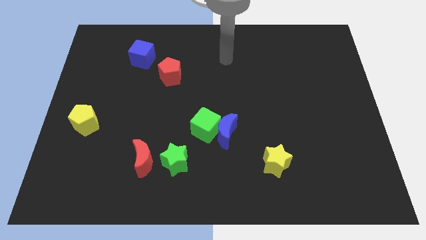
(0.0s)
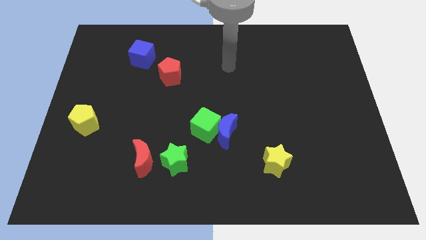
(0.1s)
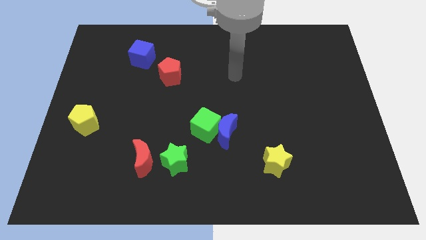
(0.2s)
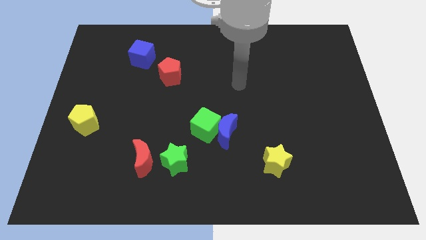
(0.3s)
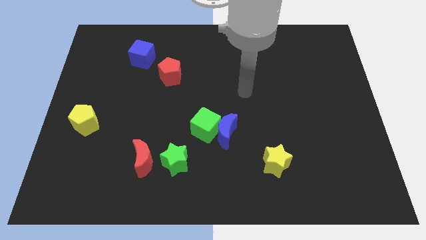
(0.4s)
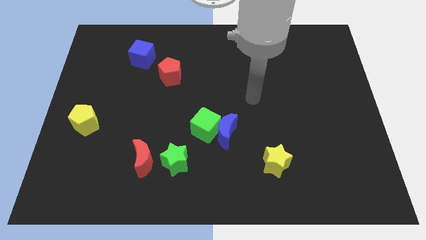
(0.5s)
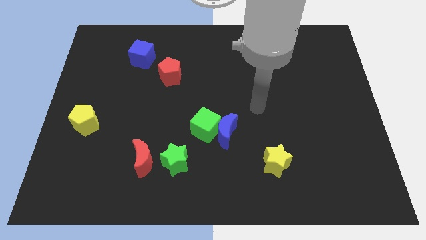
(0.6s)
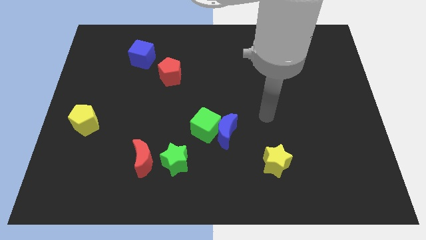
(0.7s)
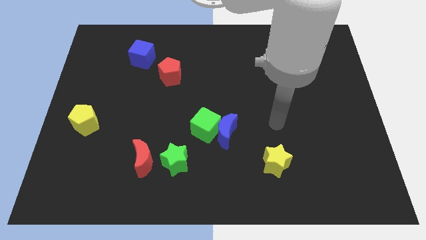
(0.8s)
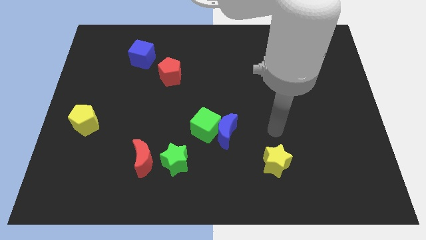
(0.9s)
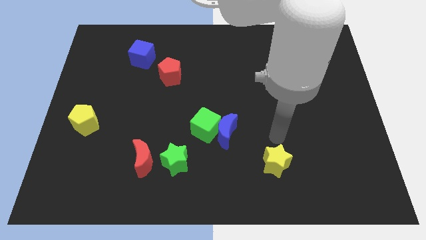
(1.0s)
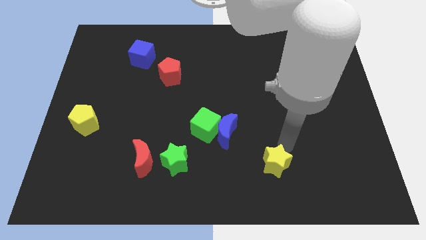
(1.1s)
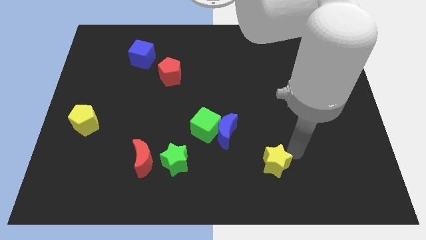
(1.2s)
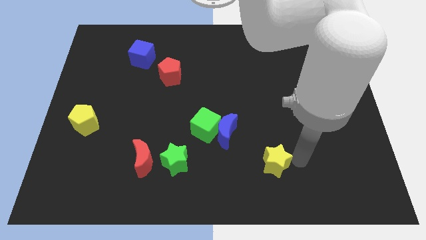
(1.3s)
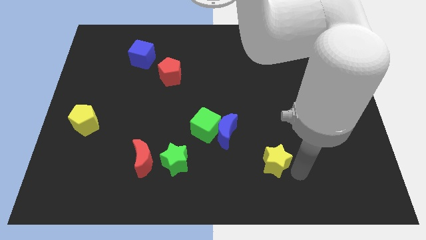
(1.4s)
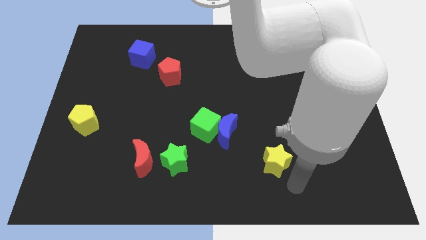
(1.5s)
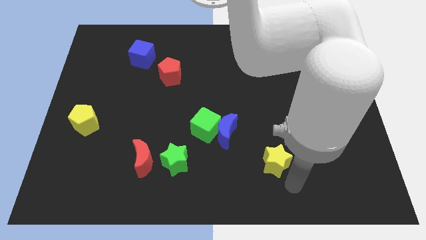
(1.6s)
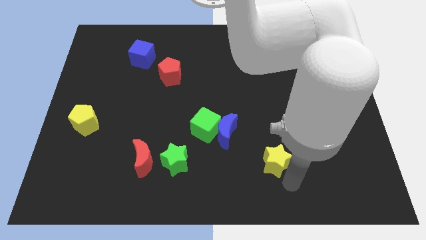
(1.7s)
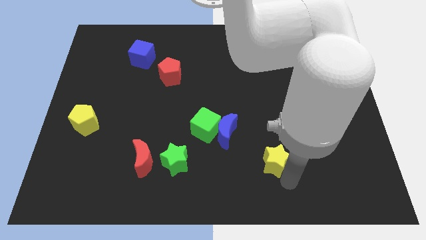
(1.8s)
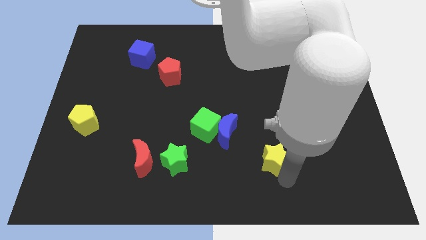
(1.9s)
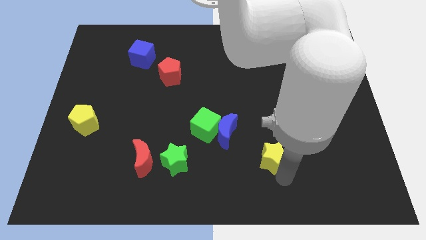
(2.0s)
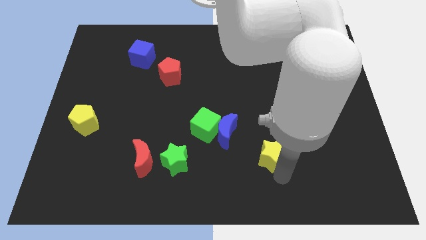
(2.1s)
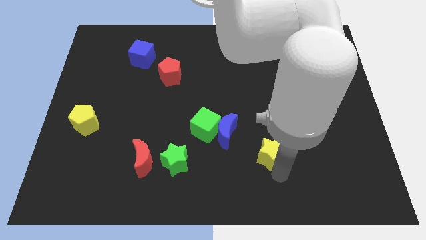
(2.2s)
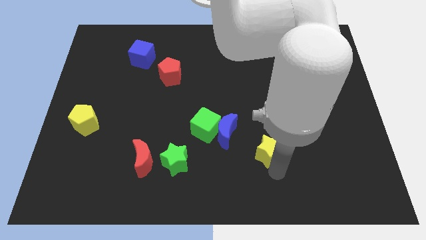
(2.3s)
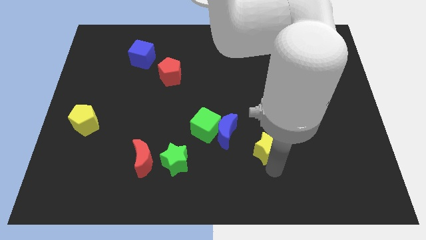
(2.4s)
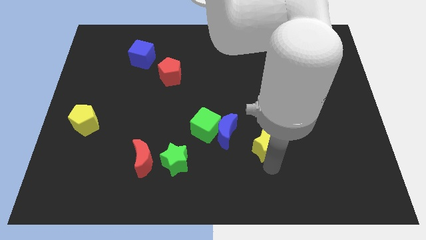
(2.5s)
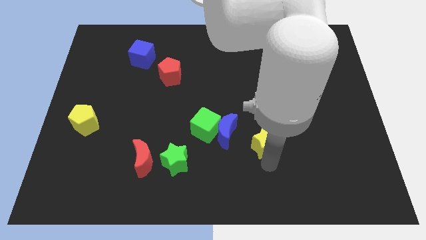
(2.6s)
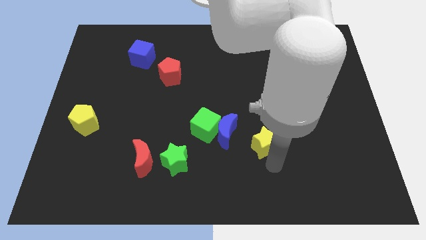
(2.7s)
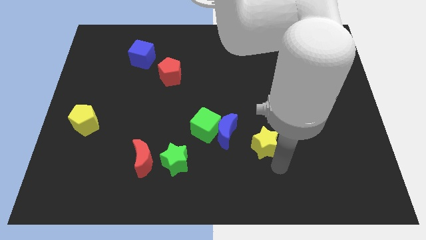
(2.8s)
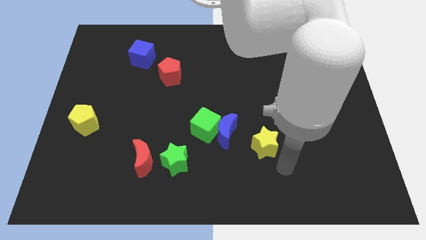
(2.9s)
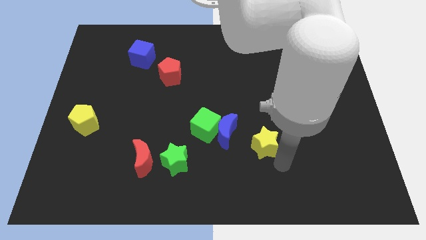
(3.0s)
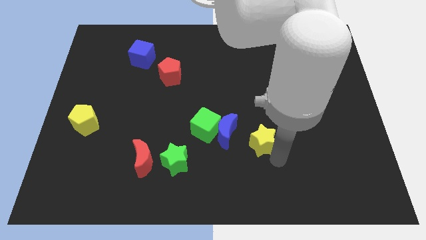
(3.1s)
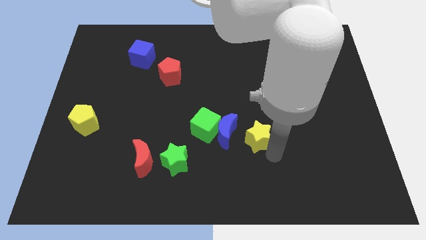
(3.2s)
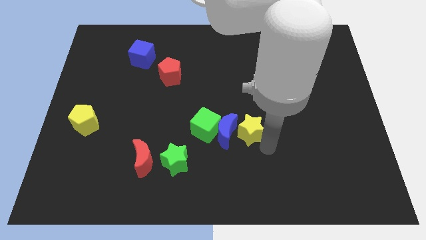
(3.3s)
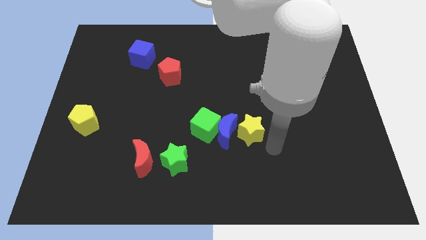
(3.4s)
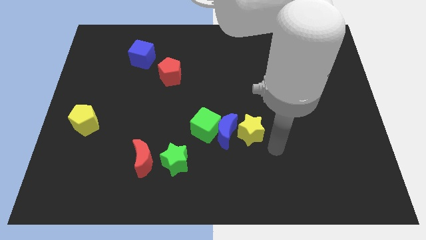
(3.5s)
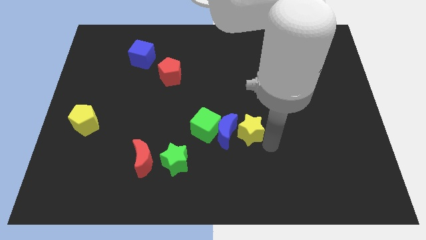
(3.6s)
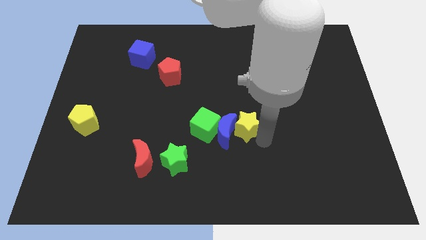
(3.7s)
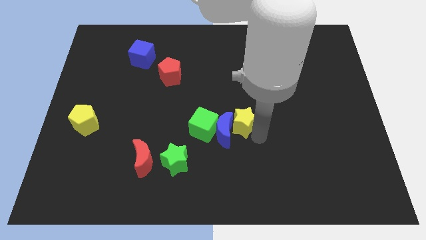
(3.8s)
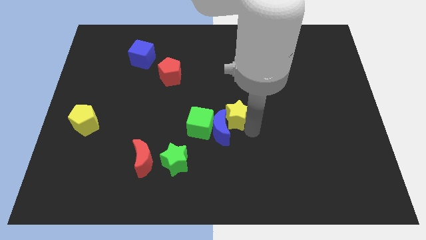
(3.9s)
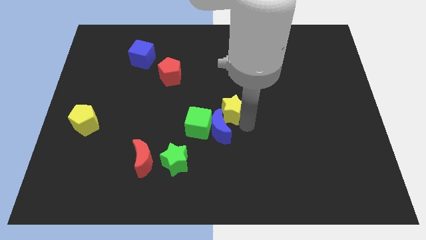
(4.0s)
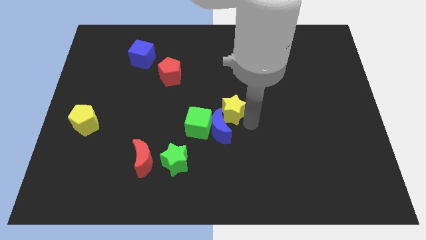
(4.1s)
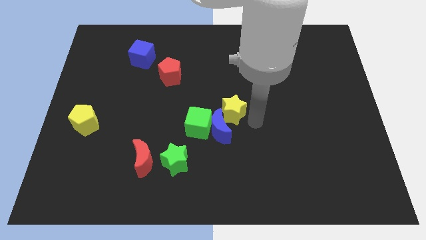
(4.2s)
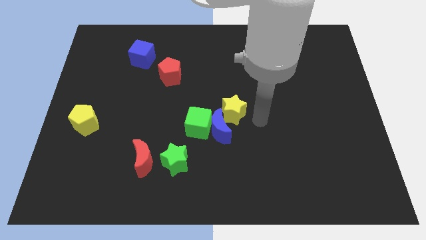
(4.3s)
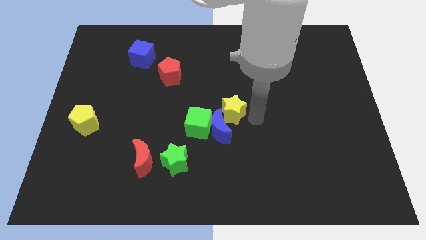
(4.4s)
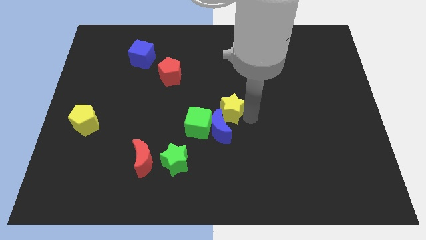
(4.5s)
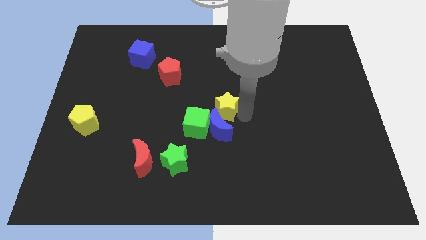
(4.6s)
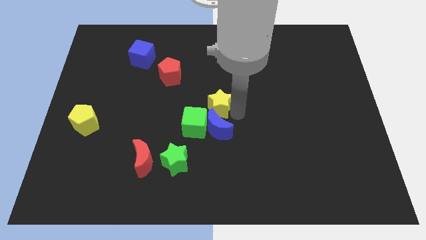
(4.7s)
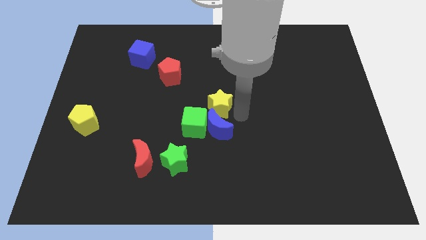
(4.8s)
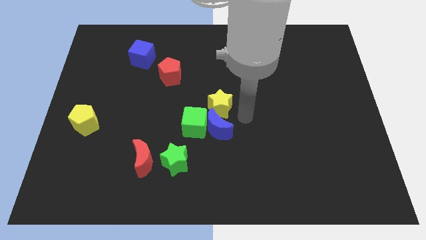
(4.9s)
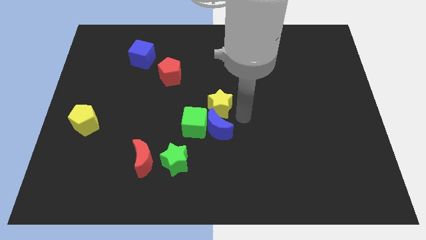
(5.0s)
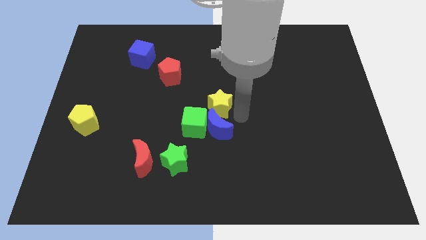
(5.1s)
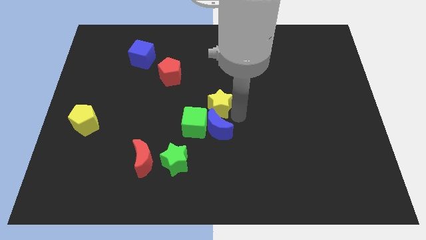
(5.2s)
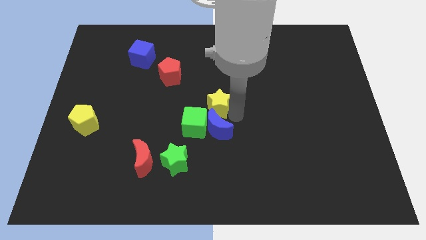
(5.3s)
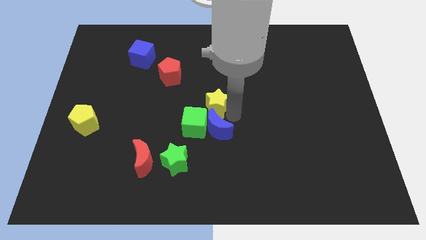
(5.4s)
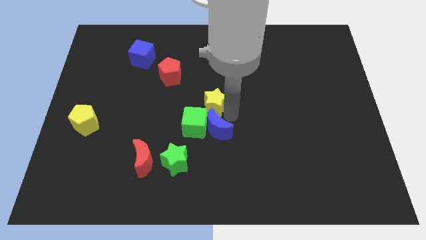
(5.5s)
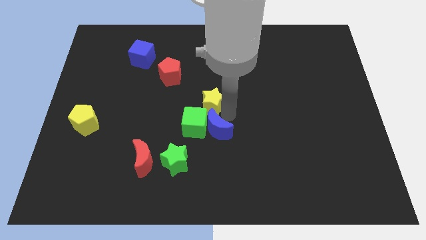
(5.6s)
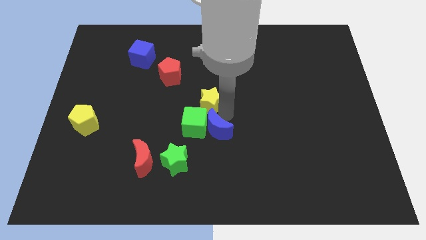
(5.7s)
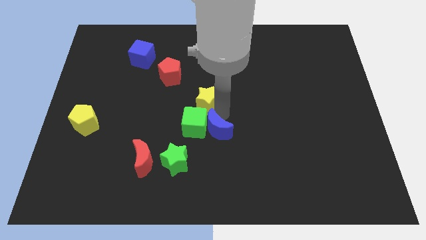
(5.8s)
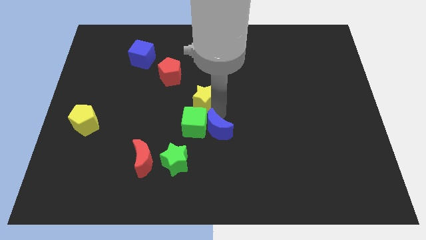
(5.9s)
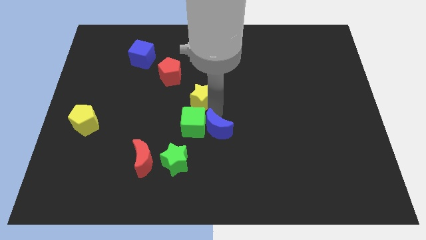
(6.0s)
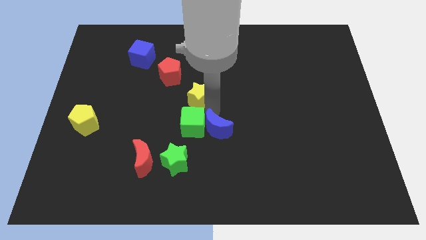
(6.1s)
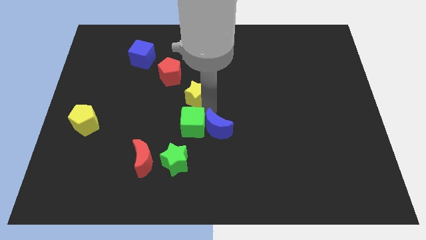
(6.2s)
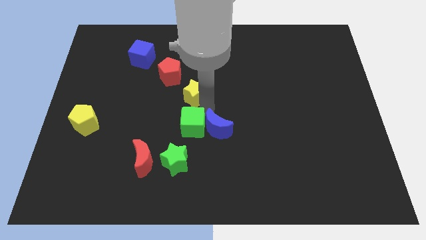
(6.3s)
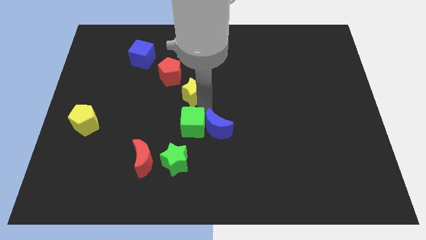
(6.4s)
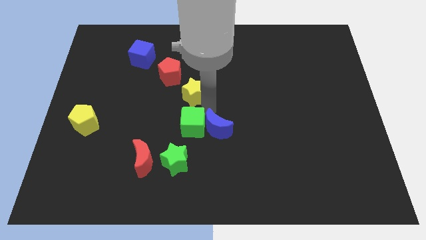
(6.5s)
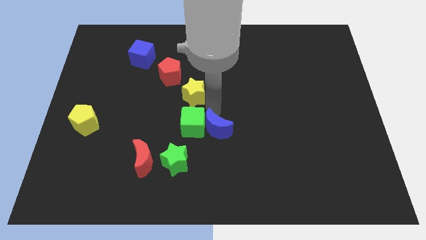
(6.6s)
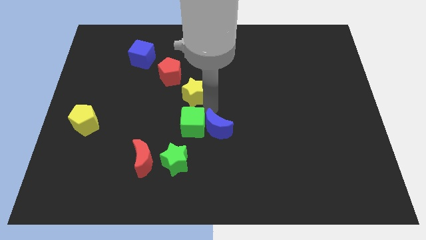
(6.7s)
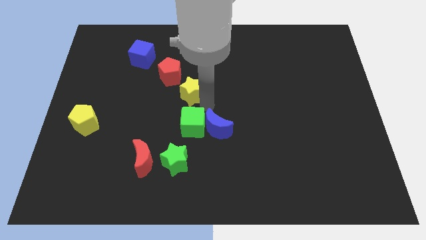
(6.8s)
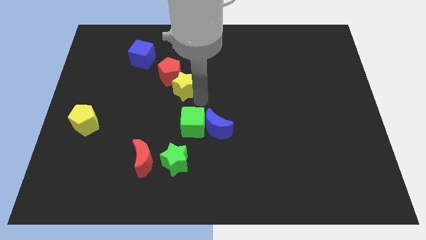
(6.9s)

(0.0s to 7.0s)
move the yellow star next to the red pentagon

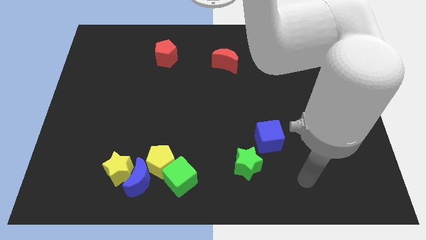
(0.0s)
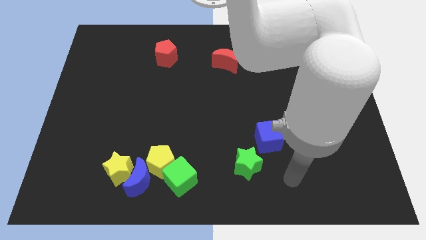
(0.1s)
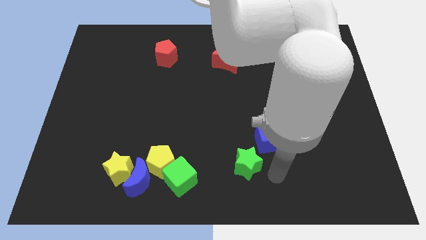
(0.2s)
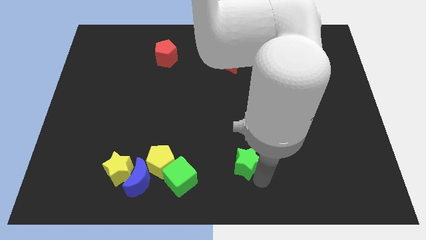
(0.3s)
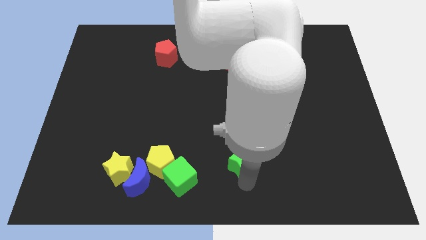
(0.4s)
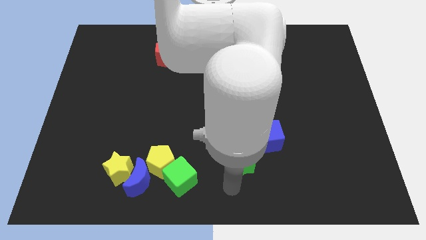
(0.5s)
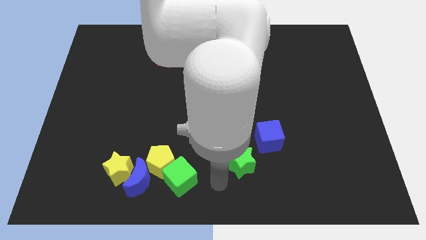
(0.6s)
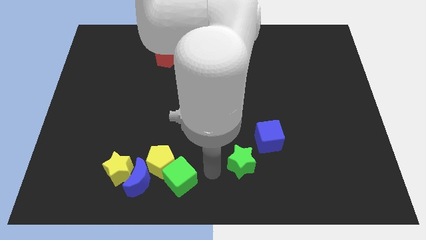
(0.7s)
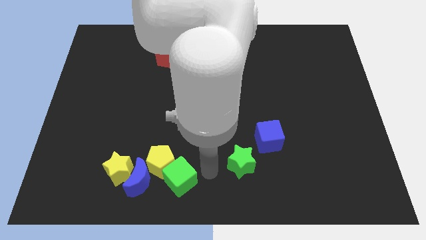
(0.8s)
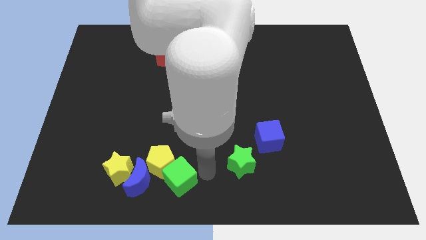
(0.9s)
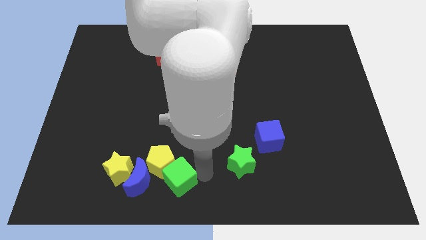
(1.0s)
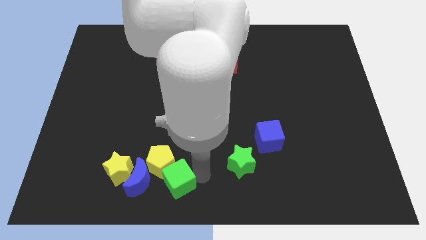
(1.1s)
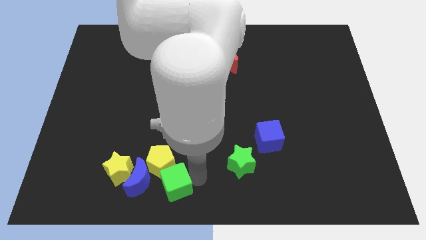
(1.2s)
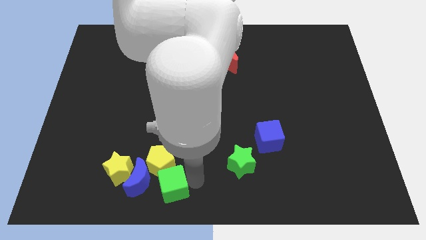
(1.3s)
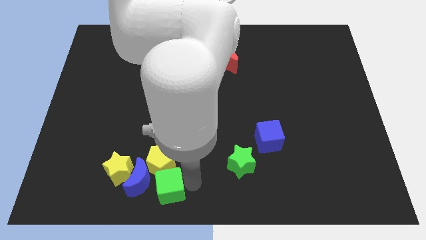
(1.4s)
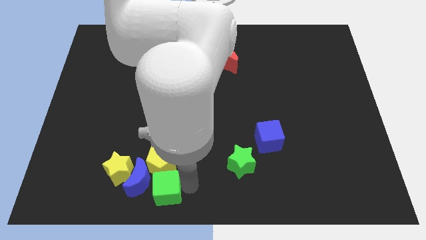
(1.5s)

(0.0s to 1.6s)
push the green cube to the blue moon
